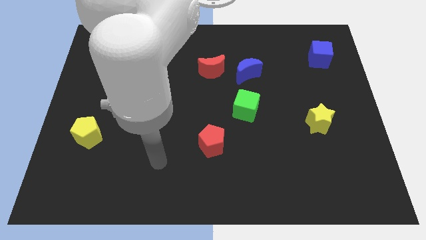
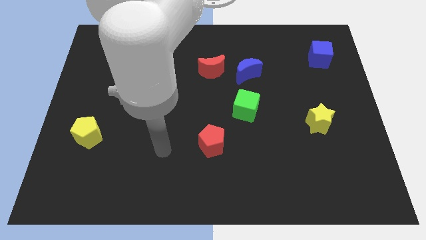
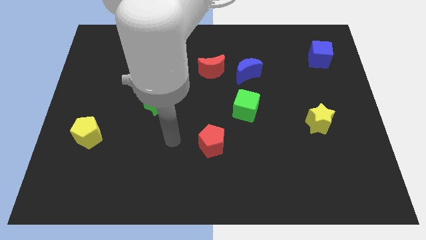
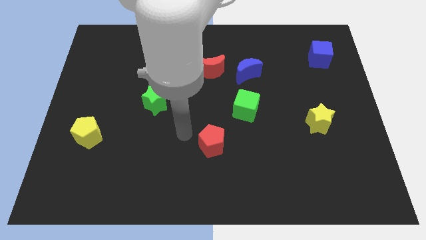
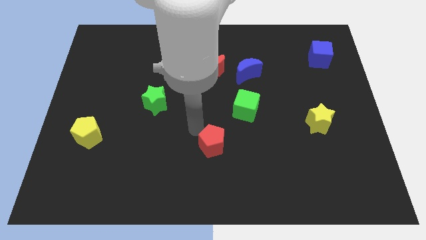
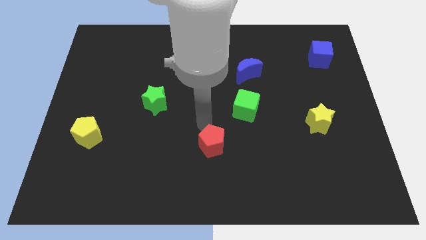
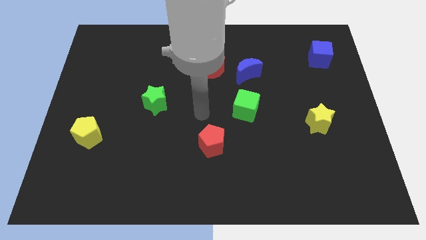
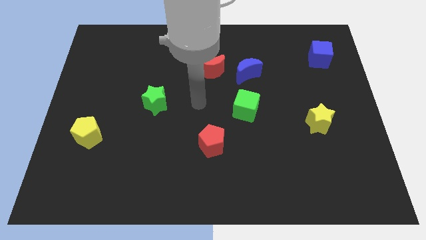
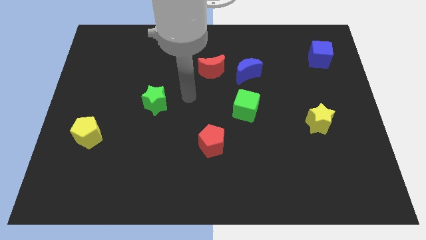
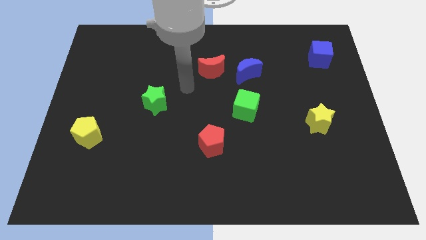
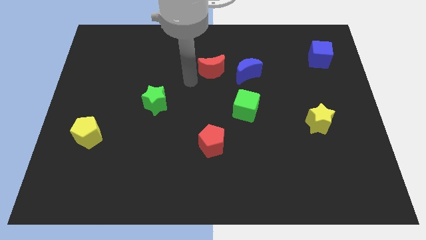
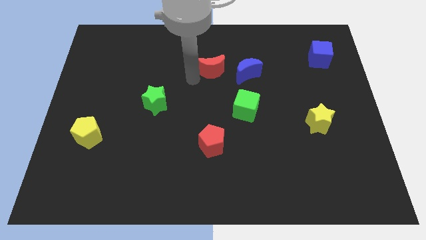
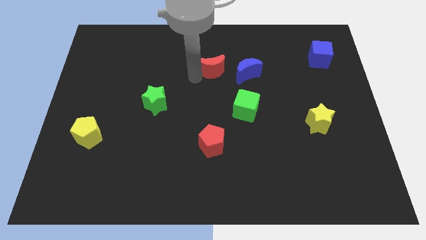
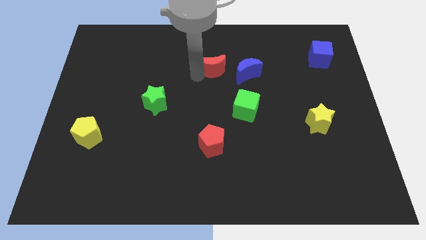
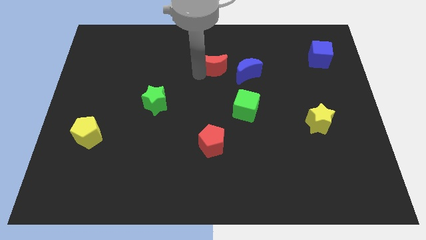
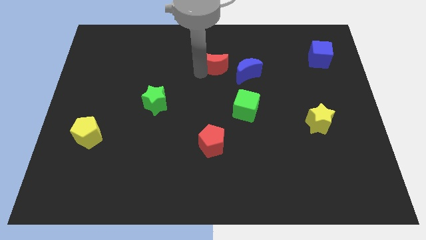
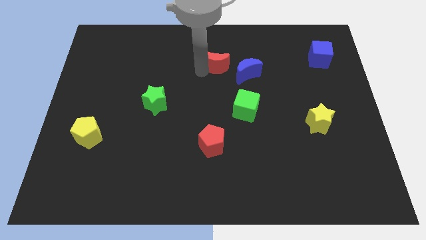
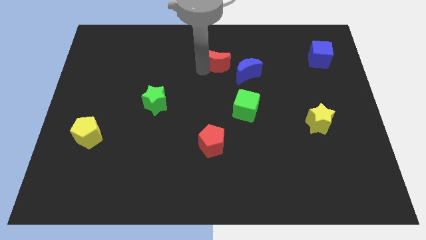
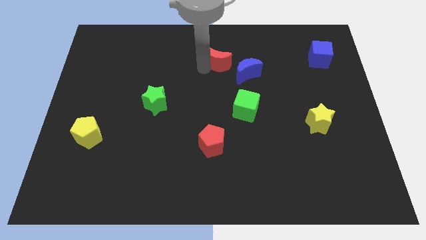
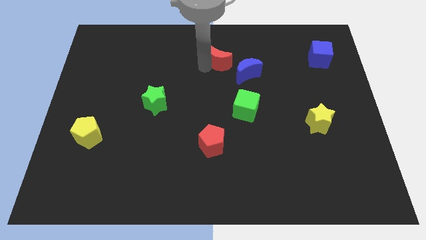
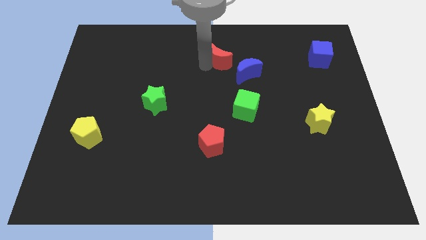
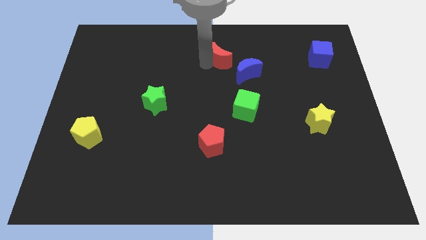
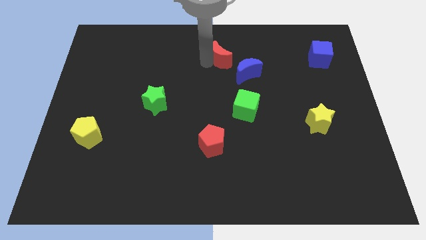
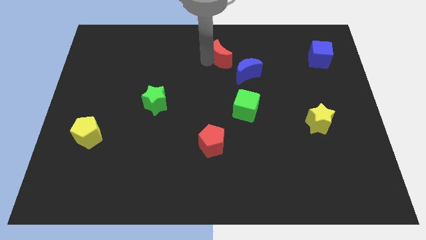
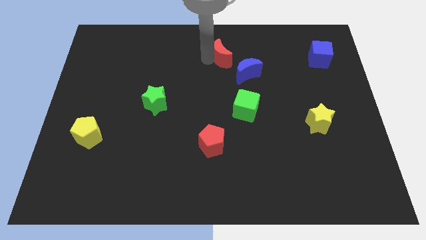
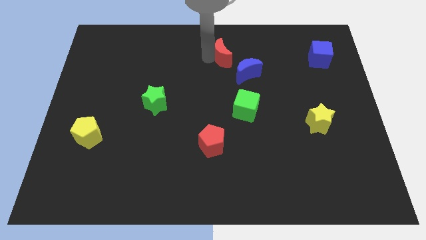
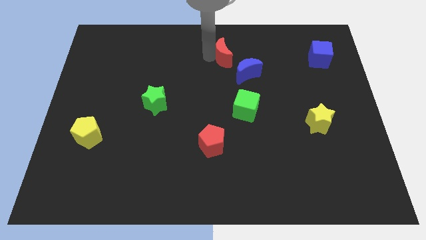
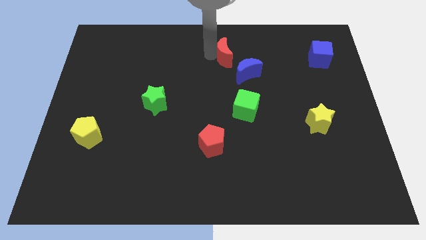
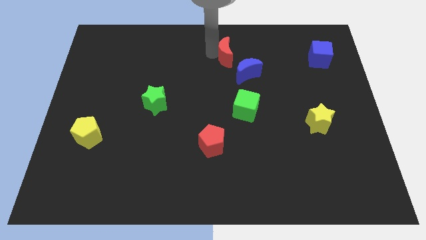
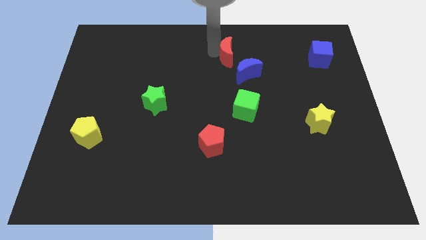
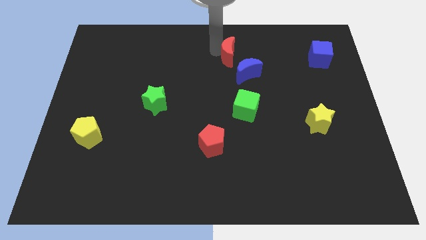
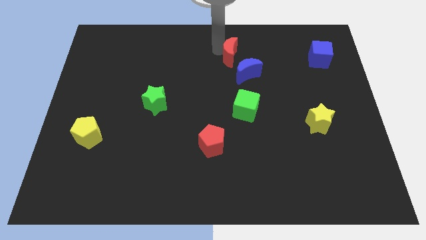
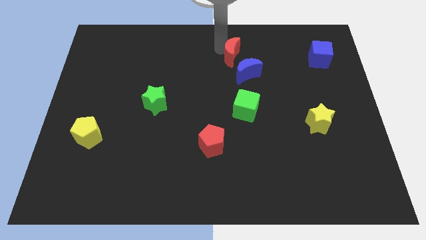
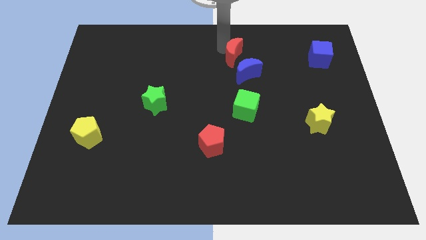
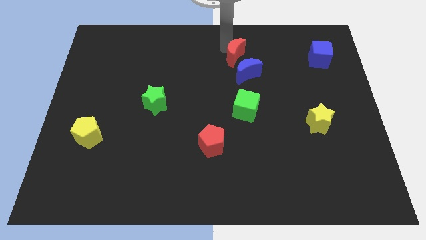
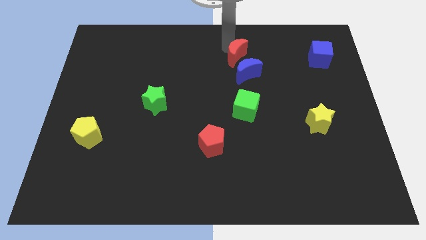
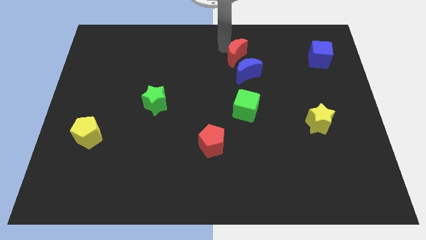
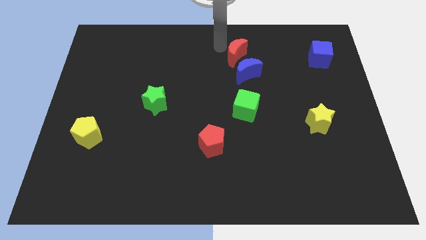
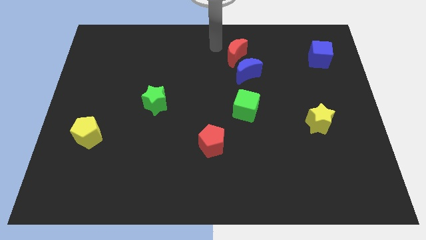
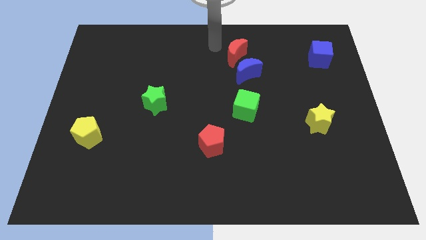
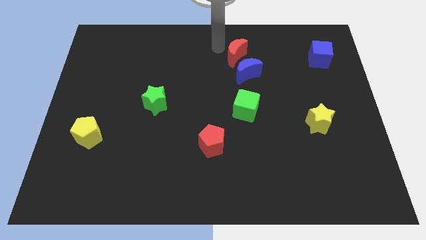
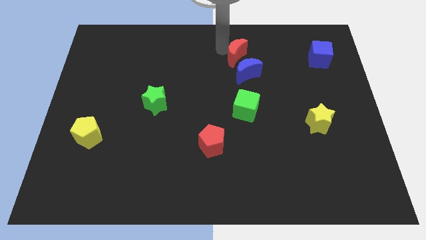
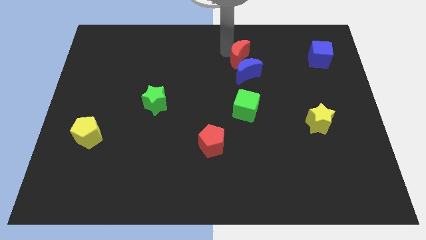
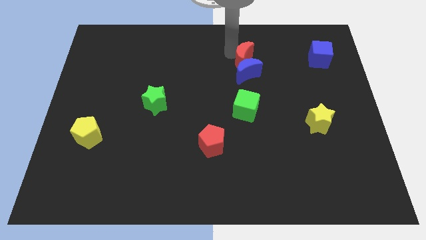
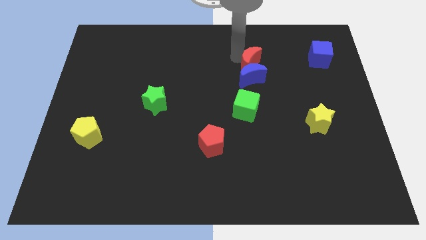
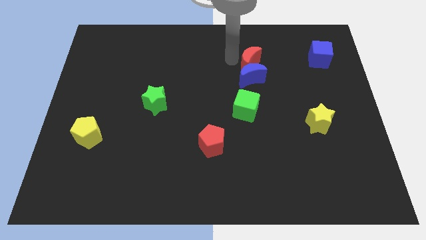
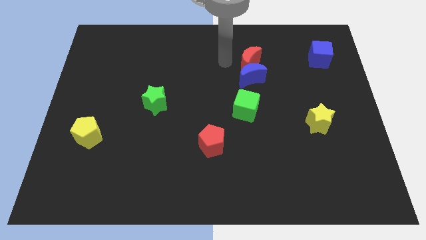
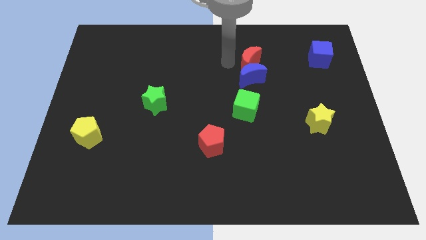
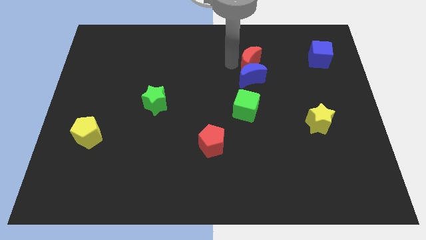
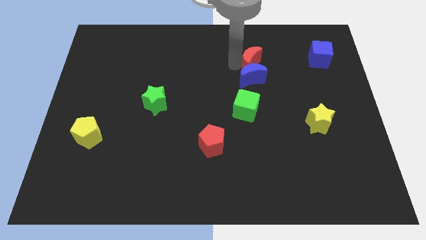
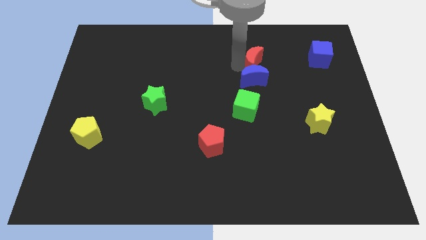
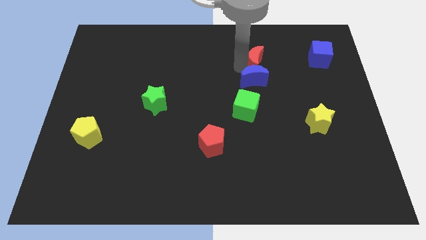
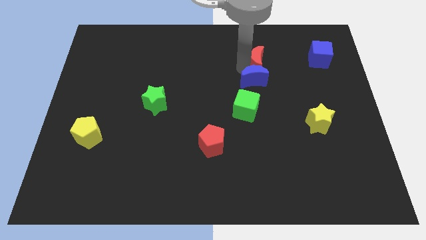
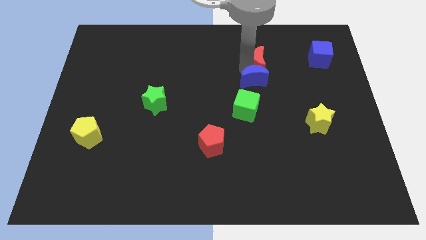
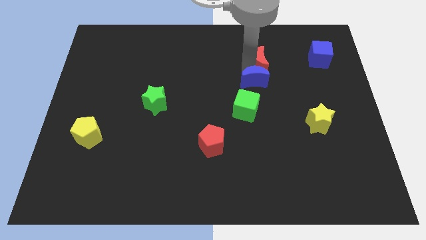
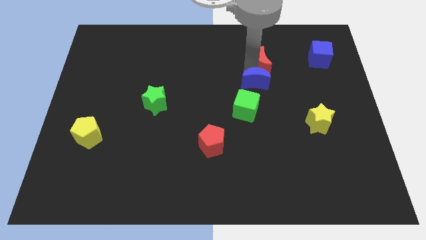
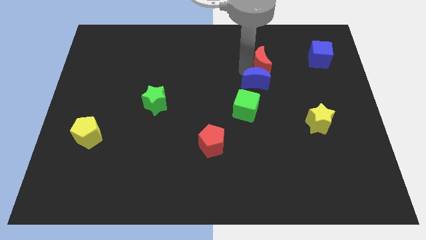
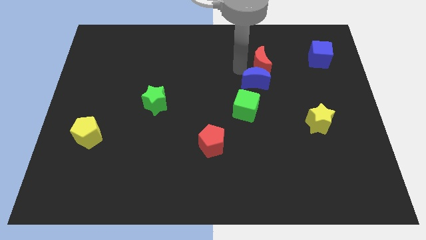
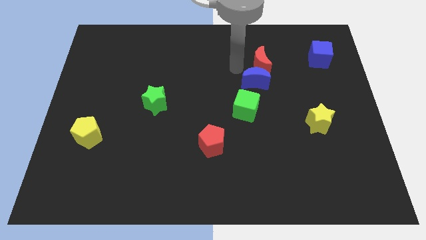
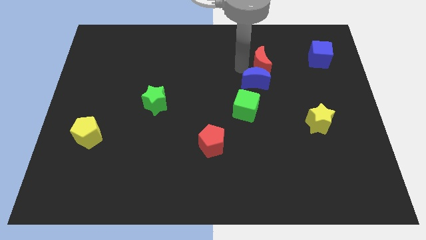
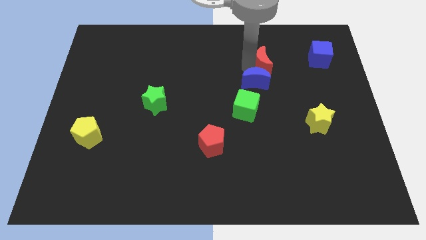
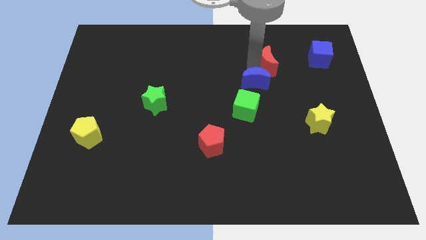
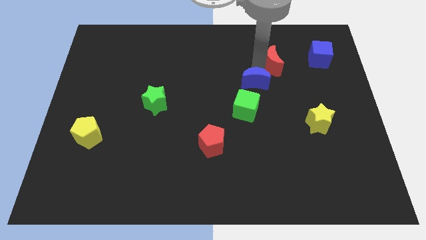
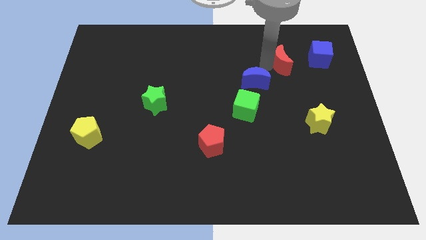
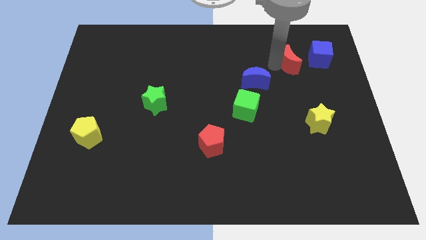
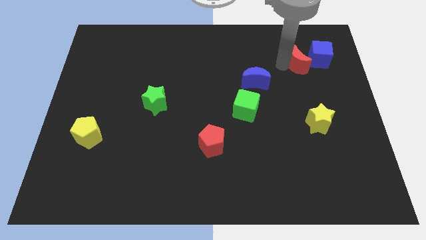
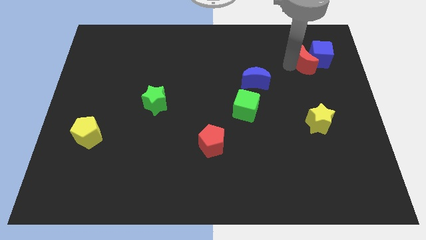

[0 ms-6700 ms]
slide the red moon towards the blue cube

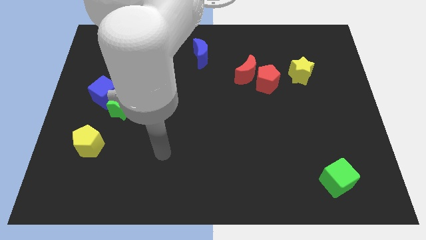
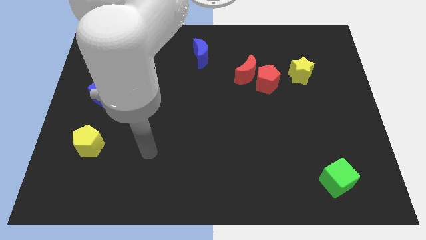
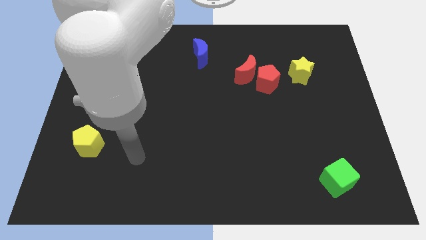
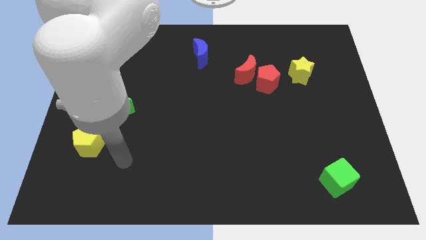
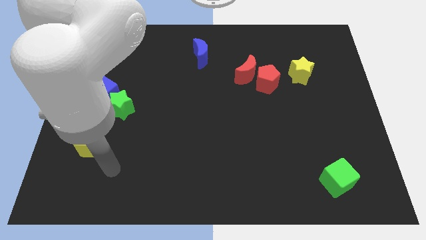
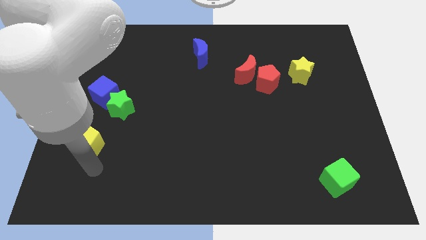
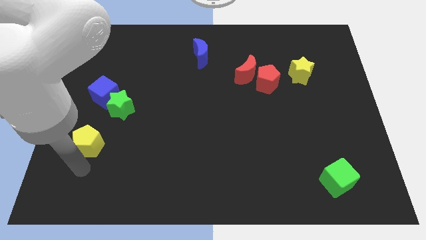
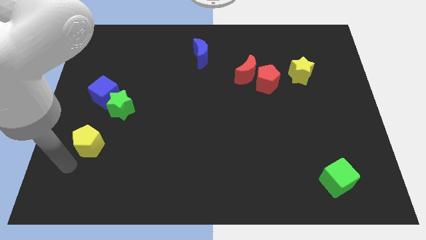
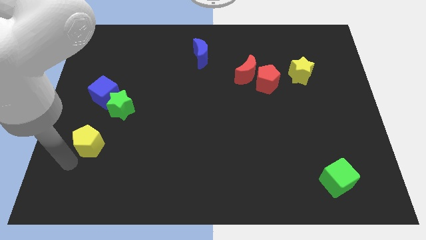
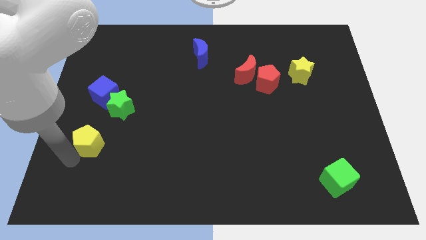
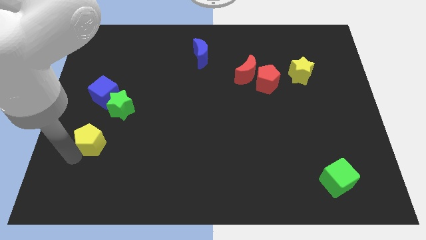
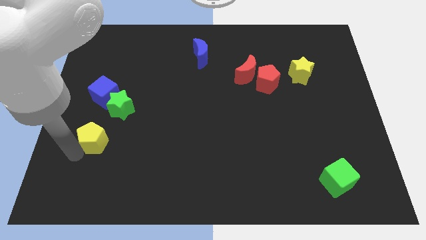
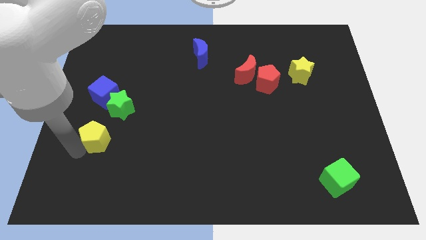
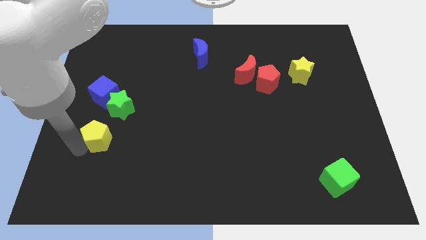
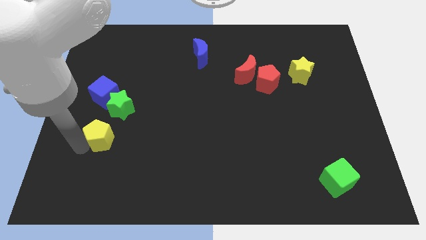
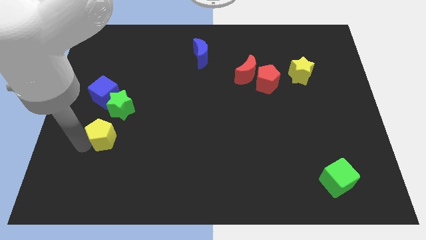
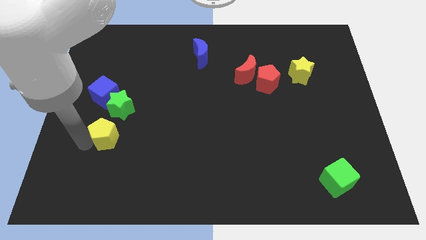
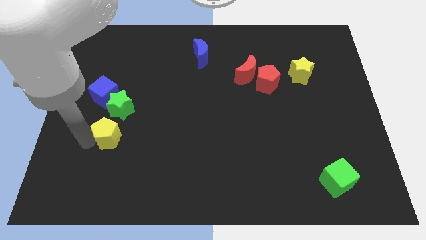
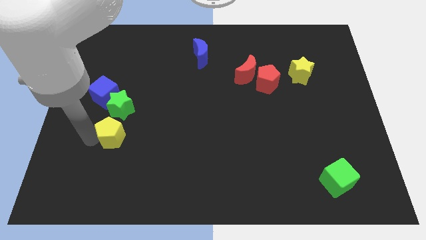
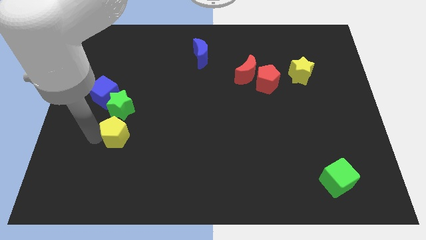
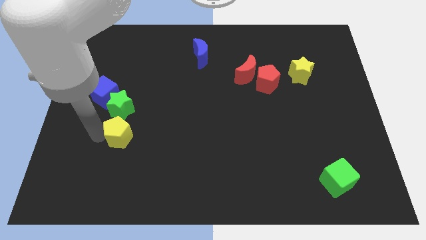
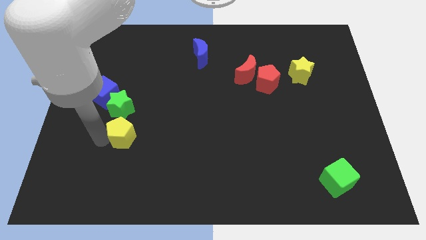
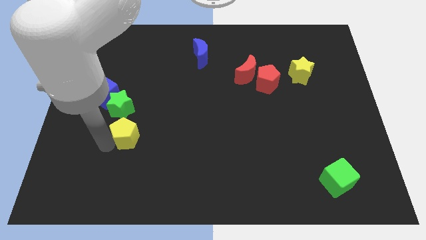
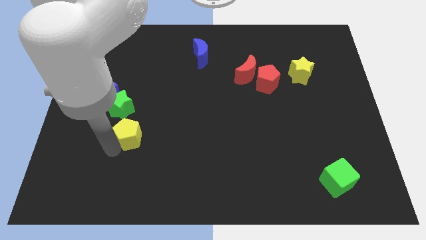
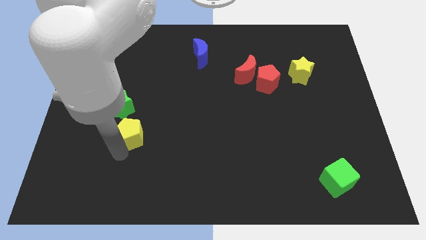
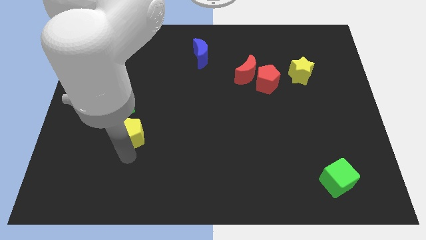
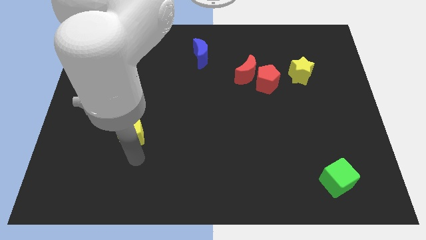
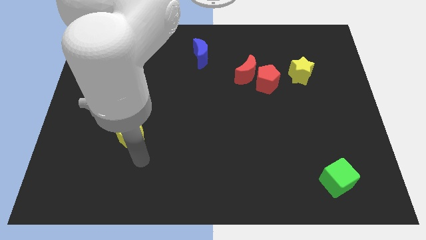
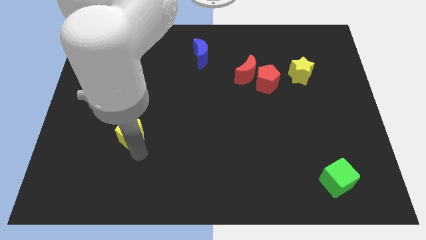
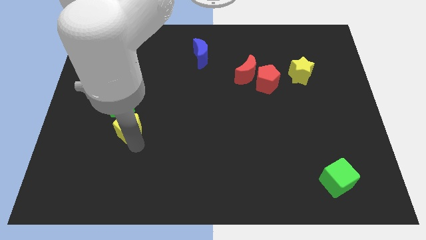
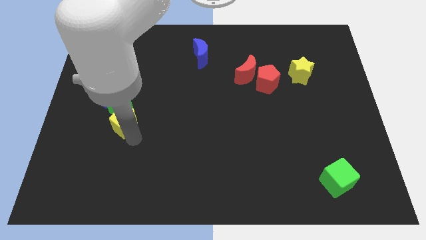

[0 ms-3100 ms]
push the yellow pentagon towards the green star
